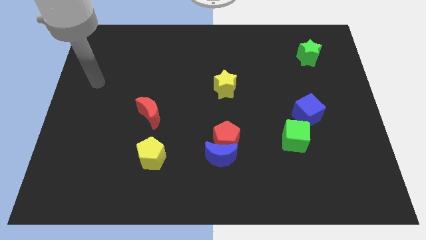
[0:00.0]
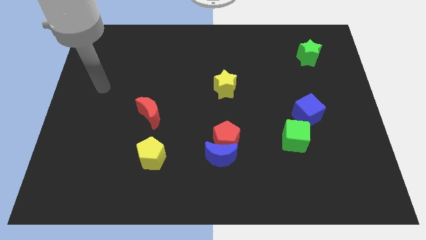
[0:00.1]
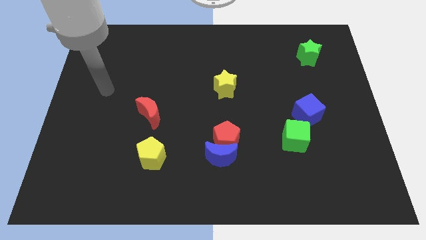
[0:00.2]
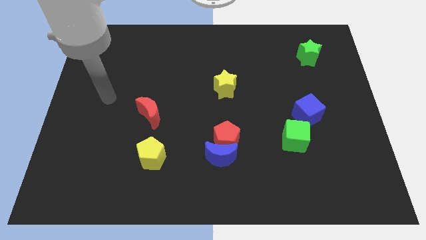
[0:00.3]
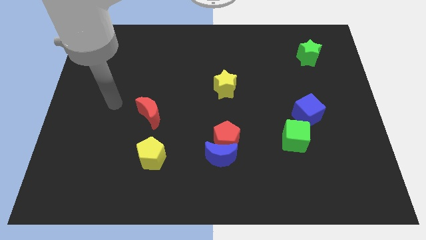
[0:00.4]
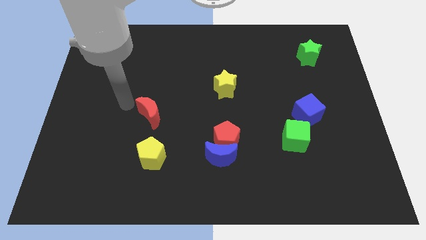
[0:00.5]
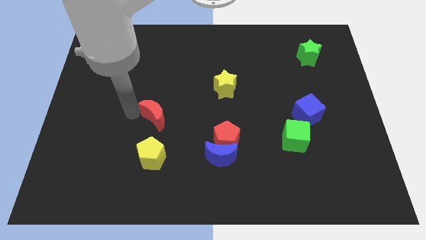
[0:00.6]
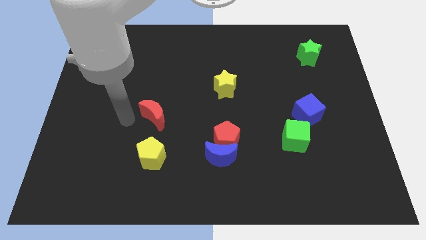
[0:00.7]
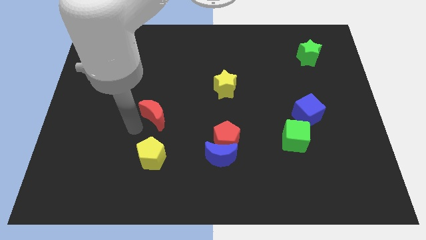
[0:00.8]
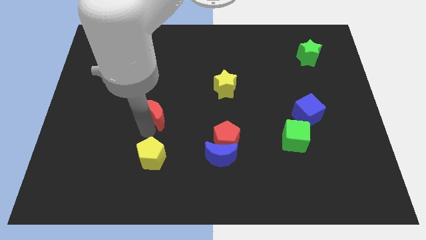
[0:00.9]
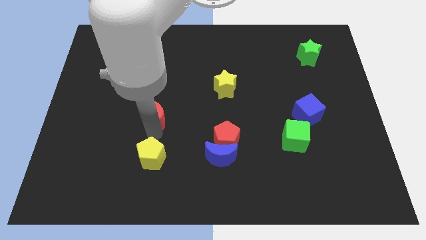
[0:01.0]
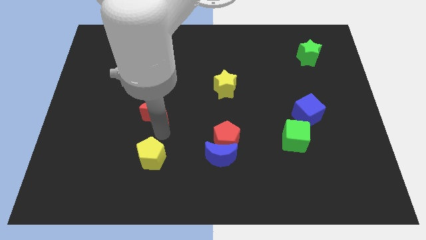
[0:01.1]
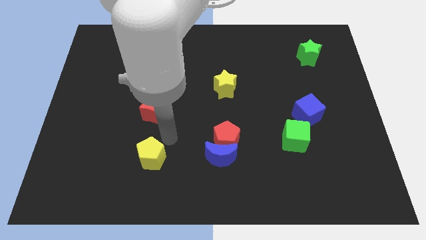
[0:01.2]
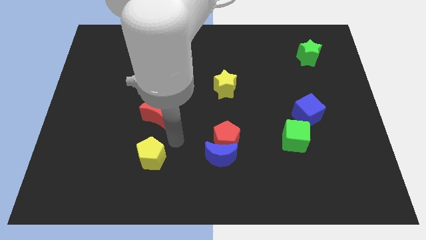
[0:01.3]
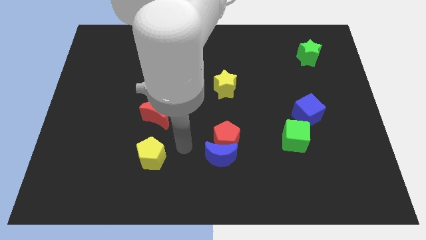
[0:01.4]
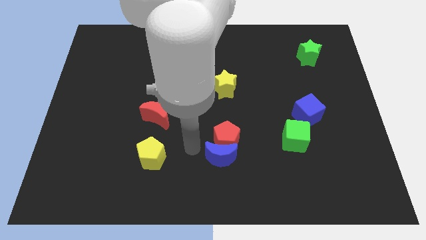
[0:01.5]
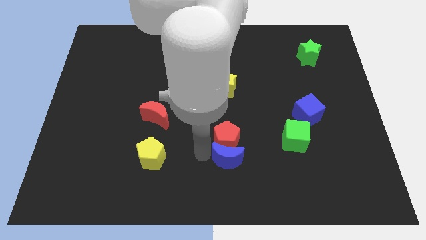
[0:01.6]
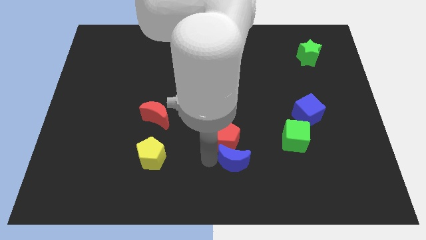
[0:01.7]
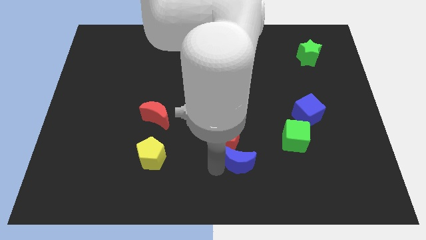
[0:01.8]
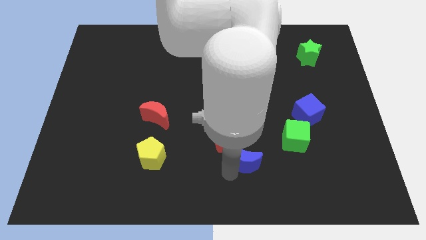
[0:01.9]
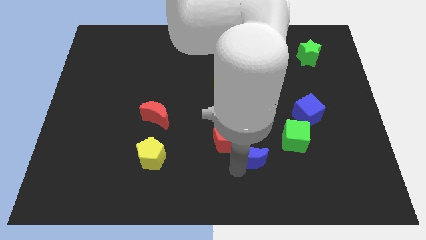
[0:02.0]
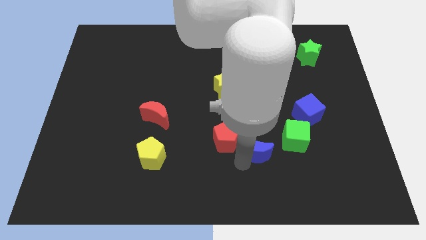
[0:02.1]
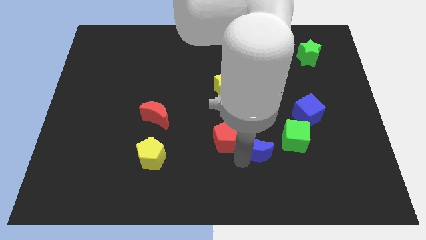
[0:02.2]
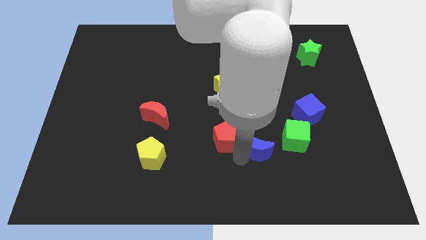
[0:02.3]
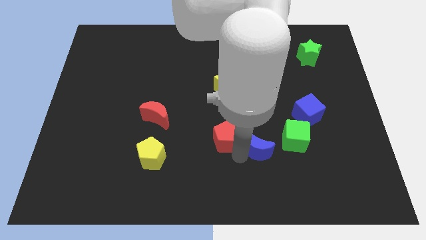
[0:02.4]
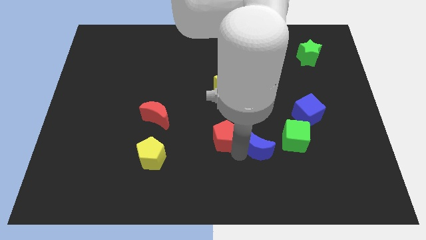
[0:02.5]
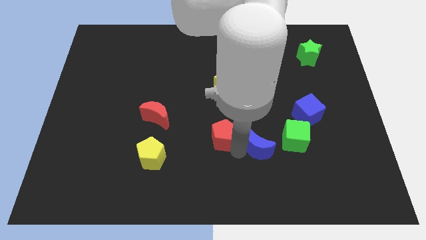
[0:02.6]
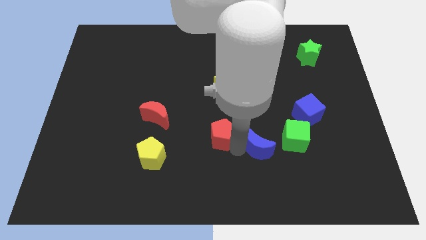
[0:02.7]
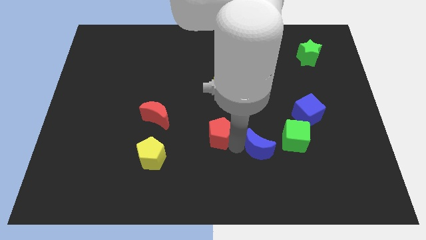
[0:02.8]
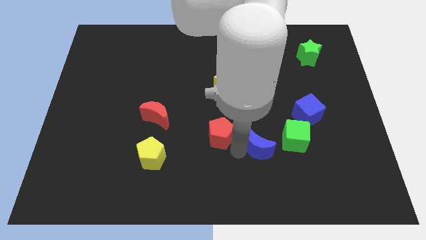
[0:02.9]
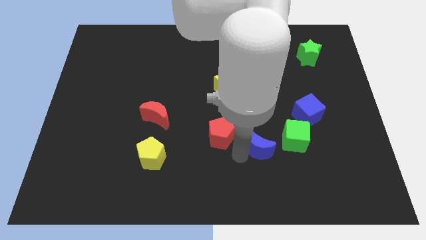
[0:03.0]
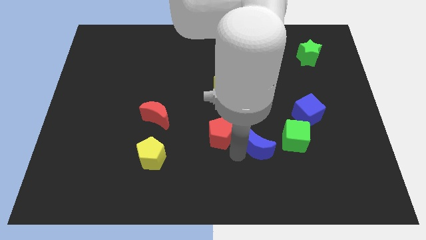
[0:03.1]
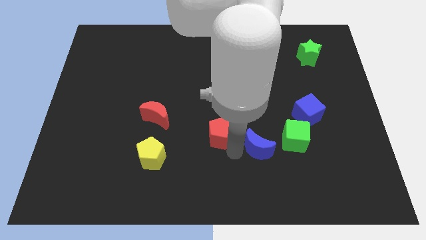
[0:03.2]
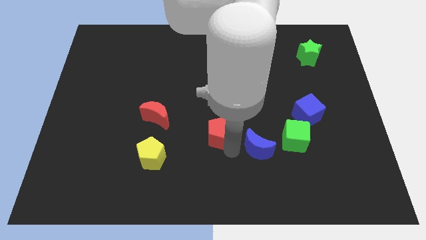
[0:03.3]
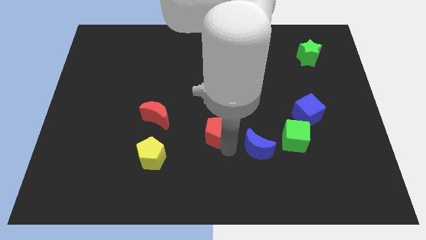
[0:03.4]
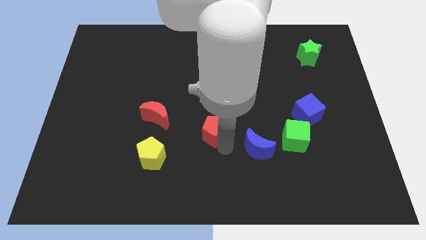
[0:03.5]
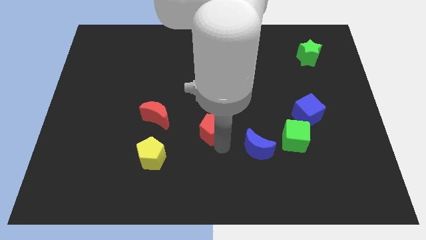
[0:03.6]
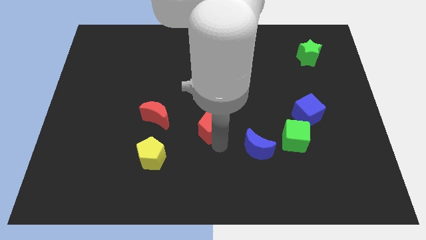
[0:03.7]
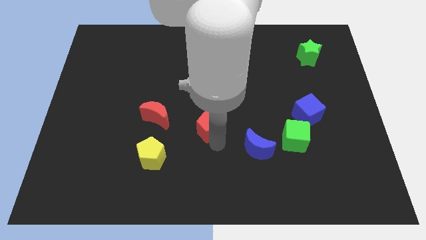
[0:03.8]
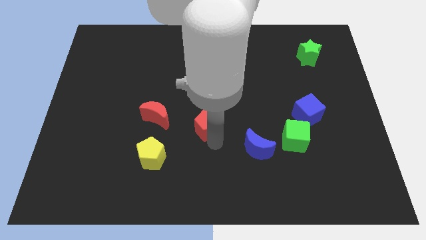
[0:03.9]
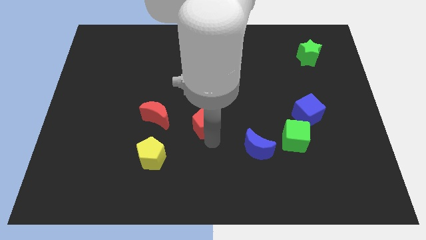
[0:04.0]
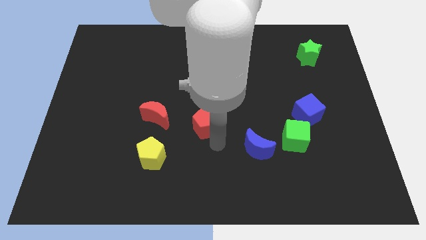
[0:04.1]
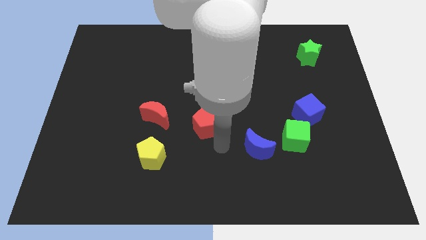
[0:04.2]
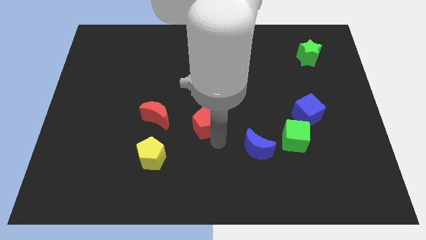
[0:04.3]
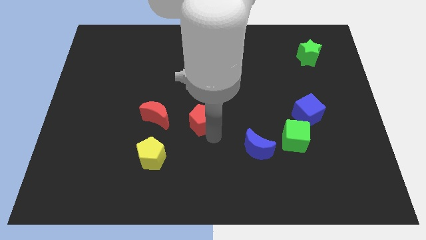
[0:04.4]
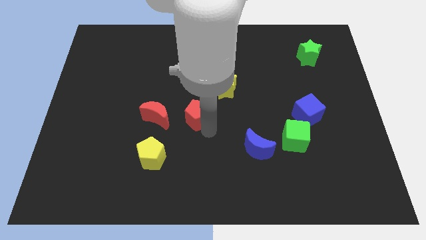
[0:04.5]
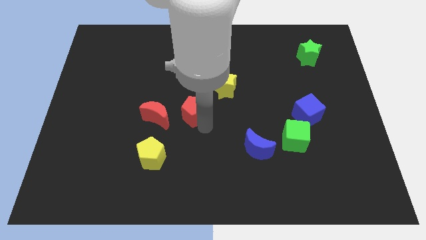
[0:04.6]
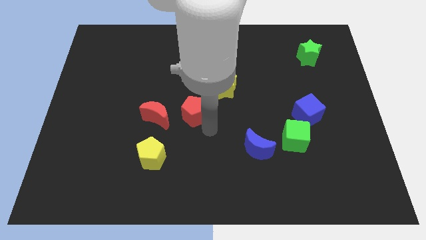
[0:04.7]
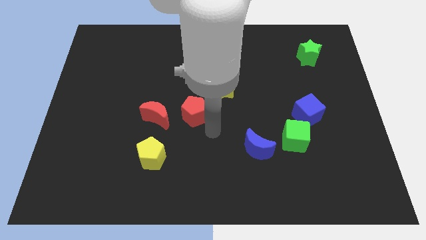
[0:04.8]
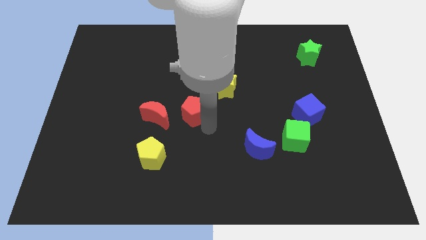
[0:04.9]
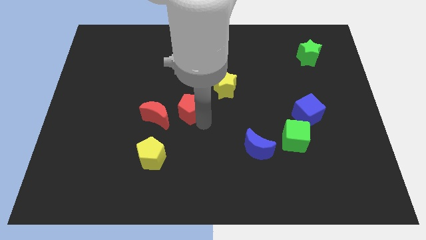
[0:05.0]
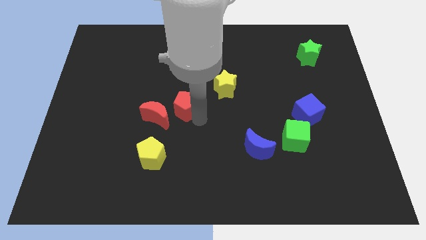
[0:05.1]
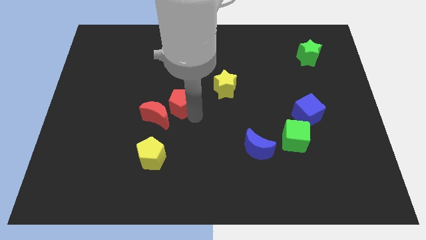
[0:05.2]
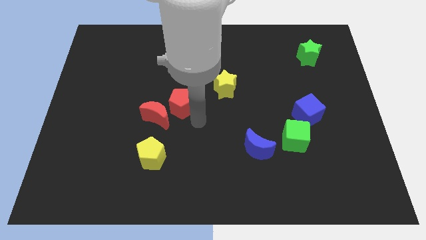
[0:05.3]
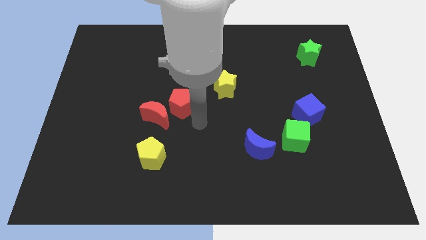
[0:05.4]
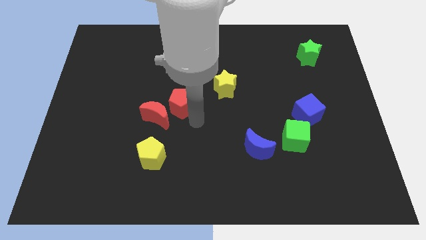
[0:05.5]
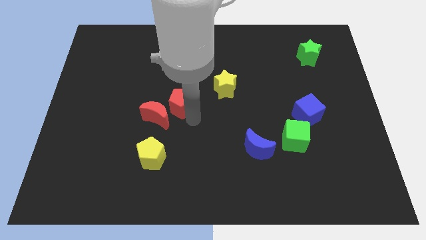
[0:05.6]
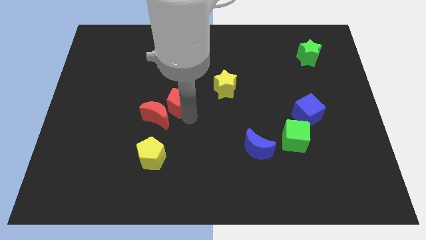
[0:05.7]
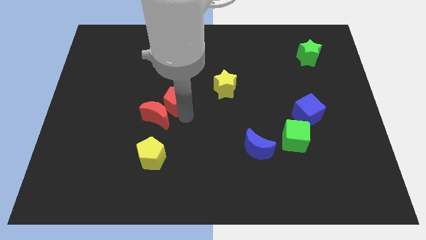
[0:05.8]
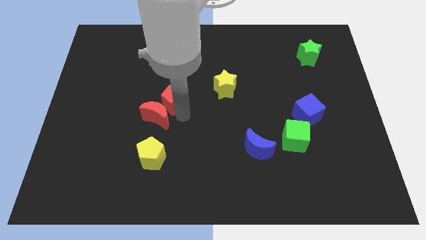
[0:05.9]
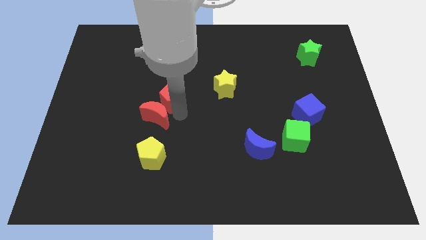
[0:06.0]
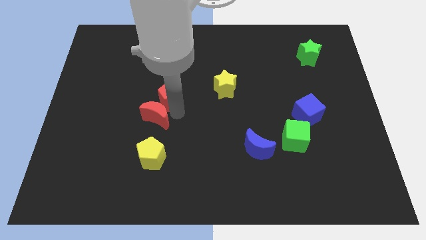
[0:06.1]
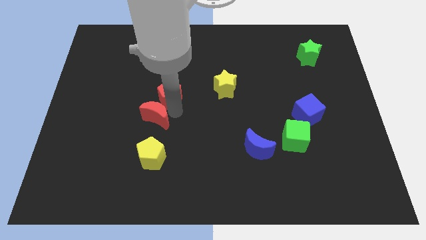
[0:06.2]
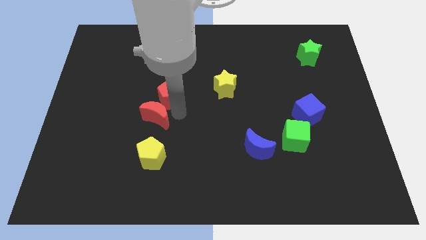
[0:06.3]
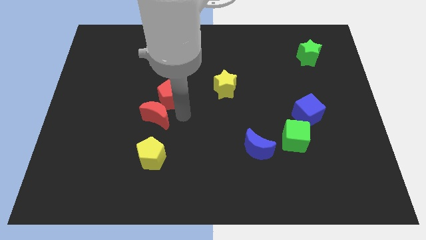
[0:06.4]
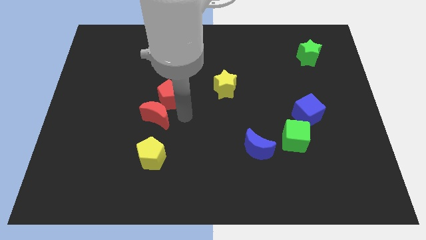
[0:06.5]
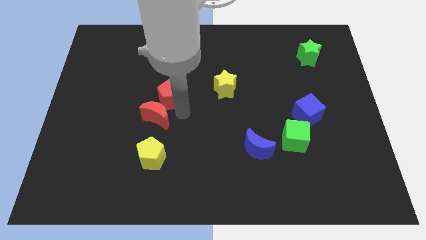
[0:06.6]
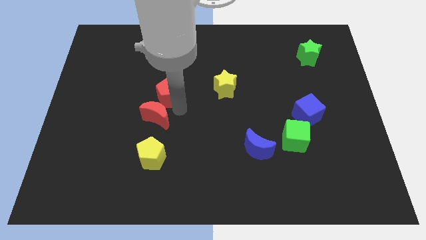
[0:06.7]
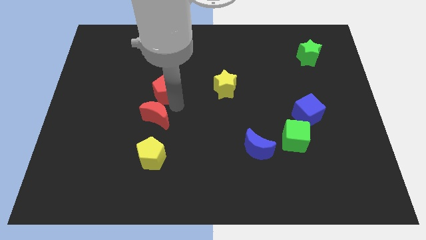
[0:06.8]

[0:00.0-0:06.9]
push the red pentagon upwards and left diagonally

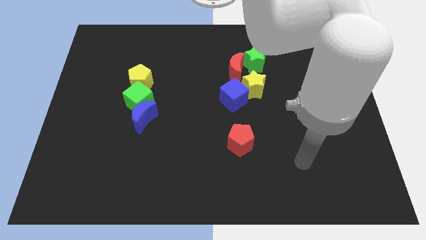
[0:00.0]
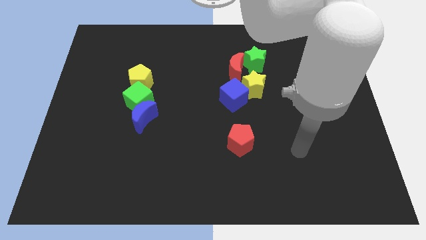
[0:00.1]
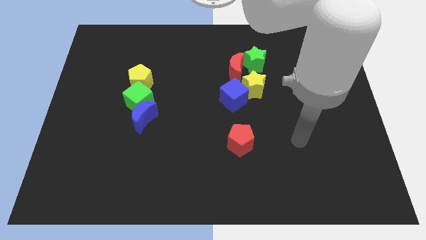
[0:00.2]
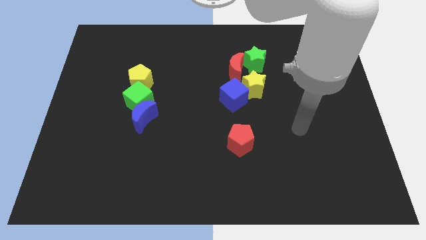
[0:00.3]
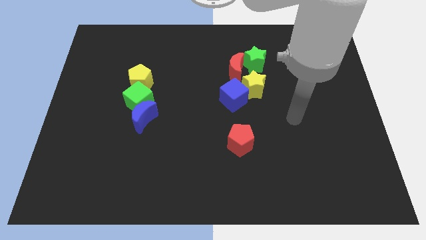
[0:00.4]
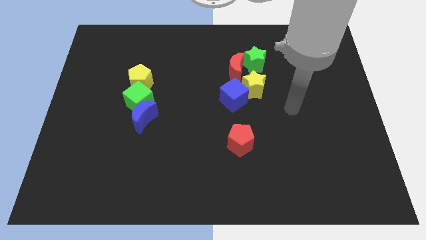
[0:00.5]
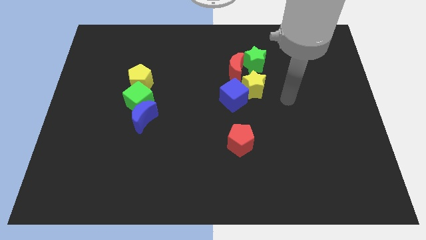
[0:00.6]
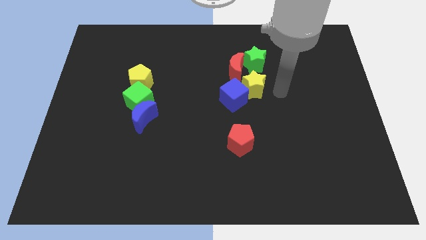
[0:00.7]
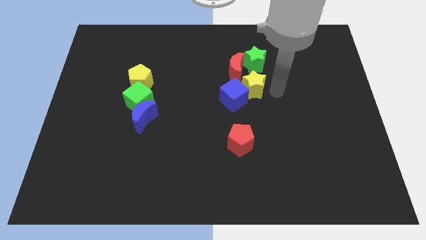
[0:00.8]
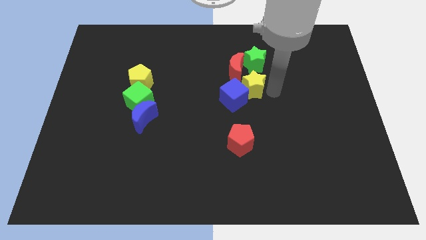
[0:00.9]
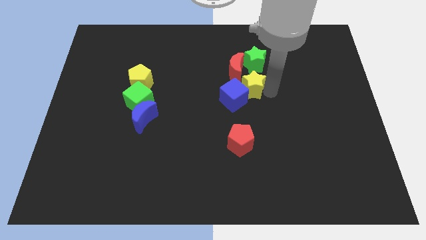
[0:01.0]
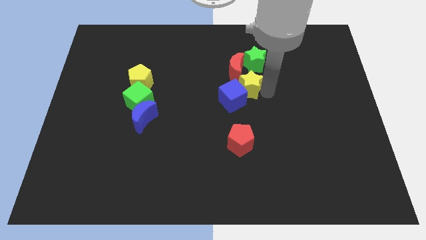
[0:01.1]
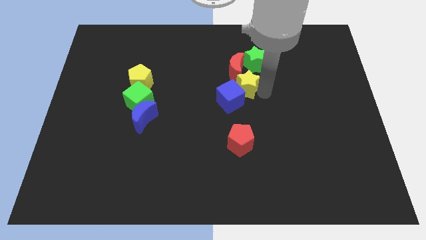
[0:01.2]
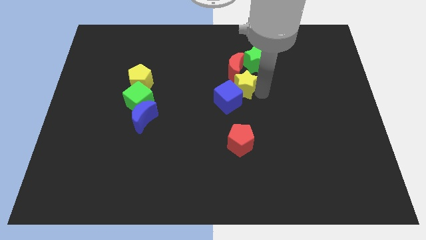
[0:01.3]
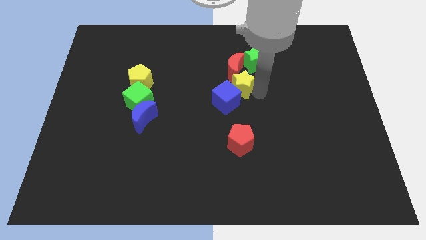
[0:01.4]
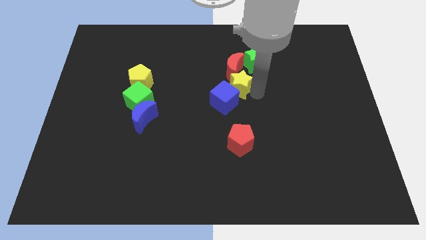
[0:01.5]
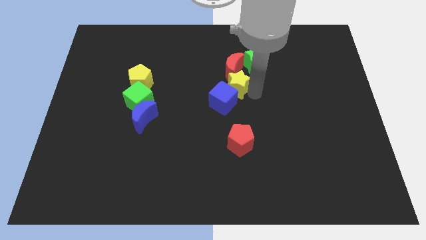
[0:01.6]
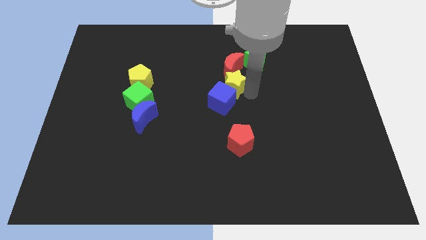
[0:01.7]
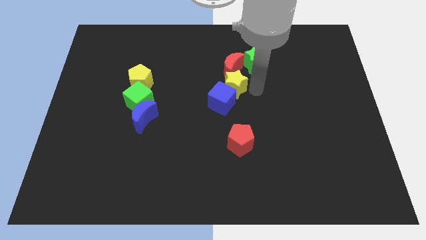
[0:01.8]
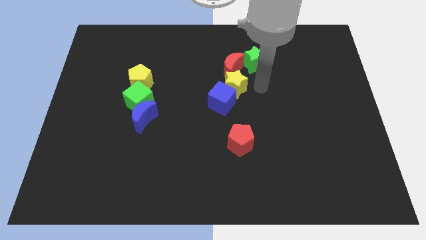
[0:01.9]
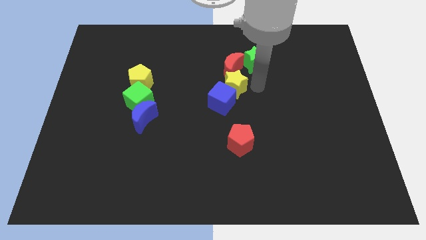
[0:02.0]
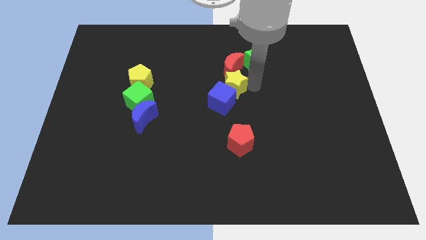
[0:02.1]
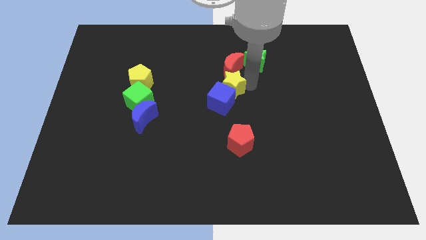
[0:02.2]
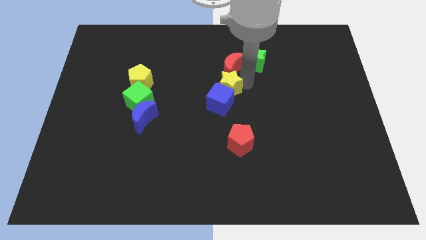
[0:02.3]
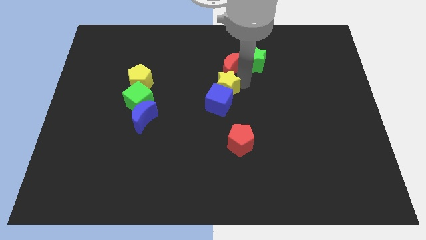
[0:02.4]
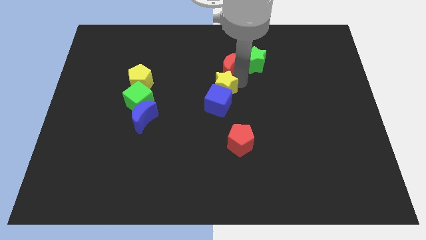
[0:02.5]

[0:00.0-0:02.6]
slightly slide the yellow star left
